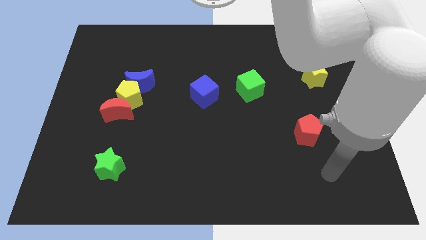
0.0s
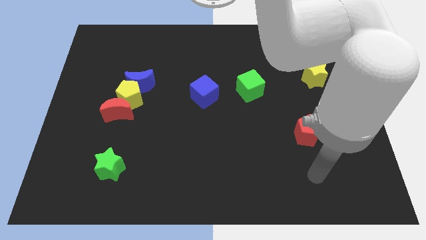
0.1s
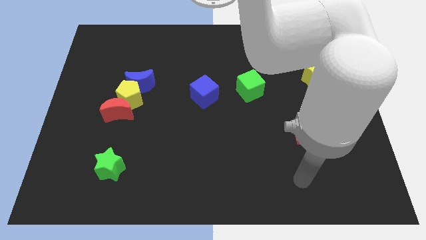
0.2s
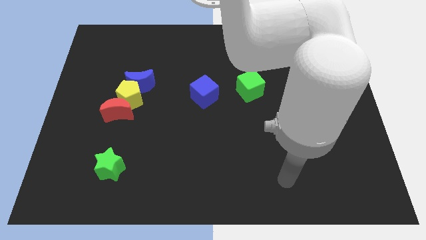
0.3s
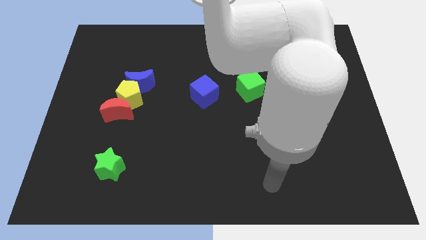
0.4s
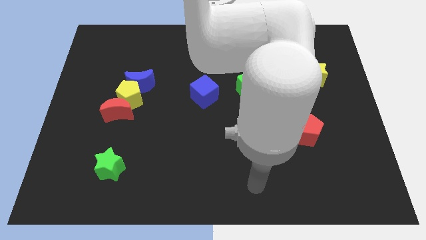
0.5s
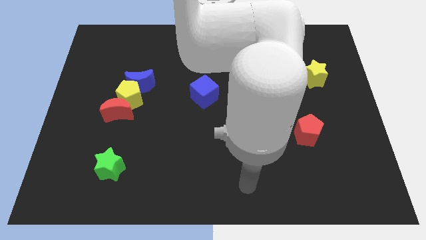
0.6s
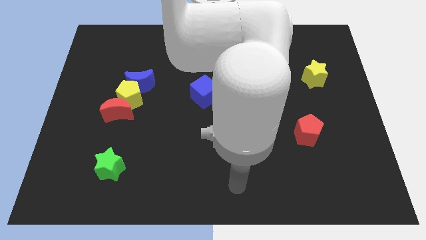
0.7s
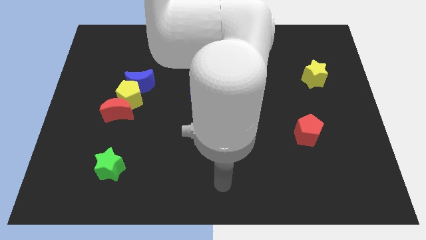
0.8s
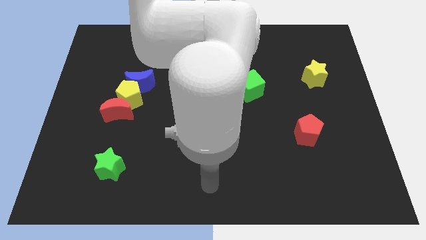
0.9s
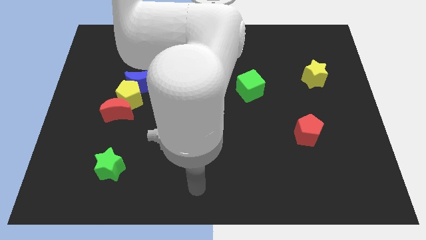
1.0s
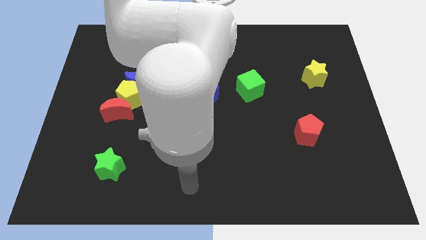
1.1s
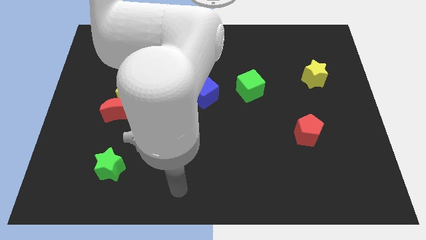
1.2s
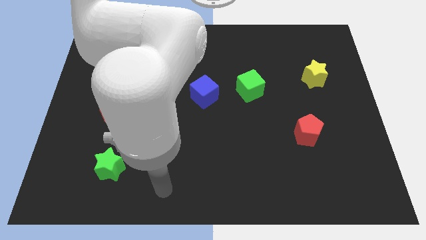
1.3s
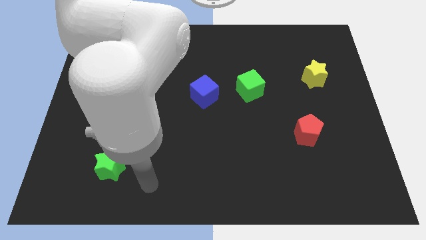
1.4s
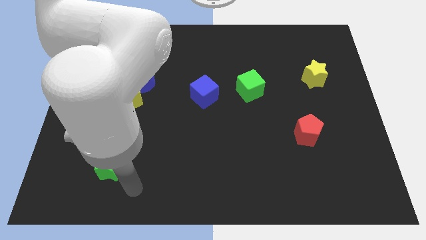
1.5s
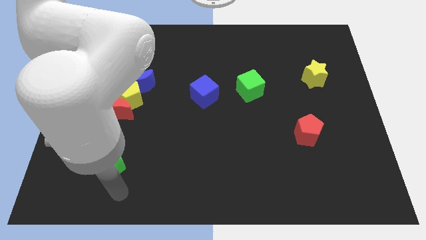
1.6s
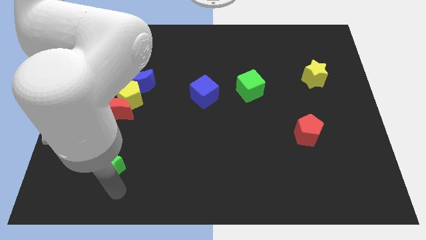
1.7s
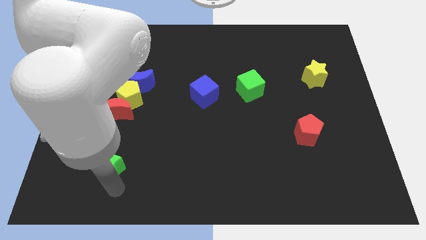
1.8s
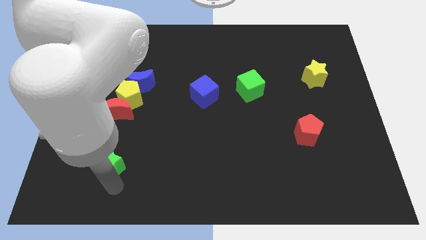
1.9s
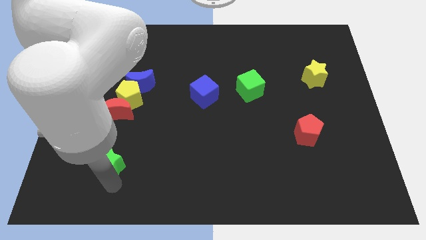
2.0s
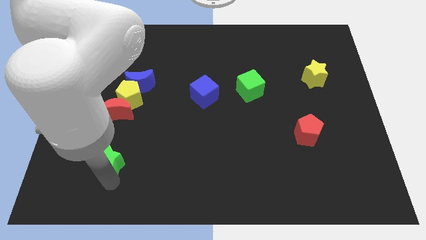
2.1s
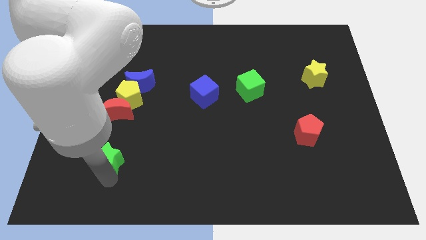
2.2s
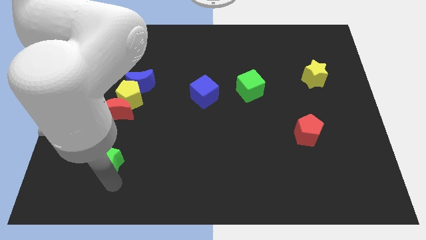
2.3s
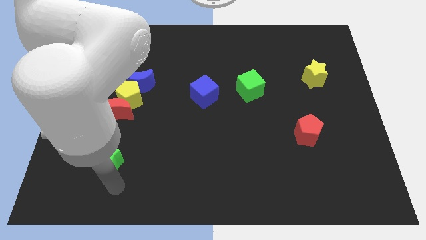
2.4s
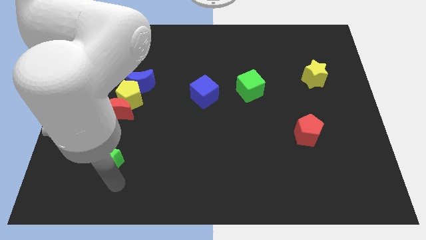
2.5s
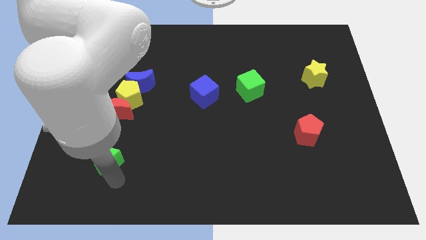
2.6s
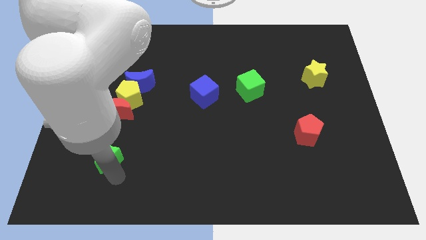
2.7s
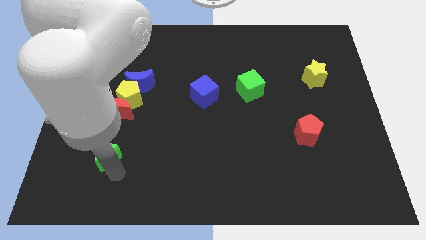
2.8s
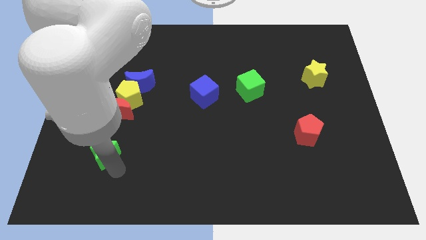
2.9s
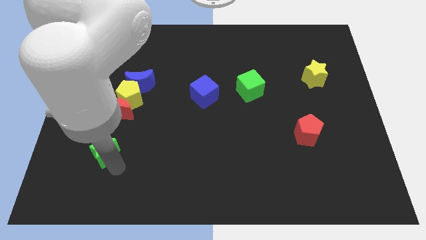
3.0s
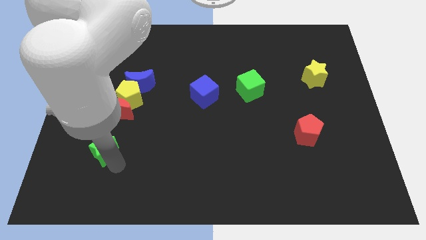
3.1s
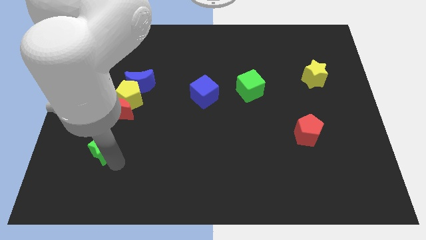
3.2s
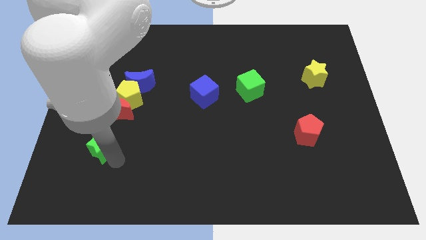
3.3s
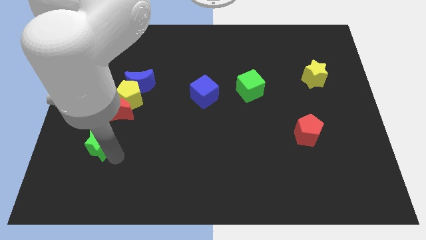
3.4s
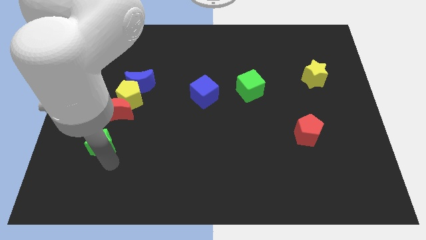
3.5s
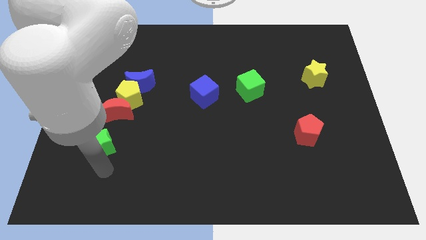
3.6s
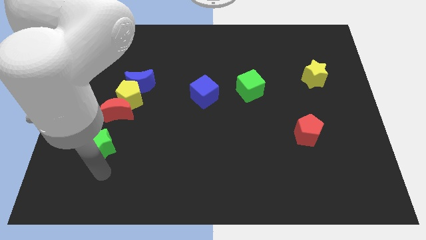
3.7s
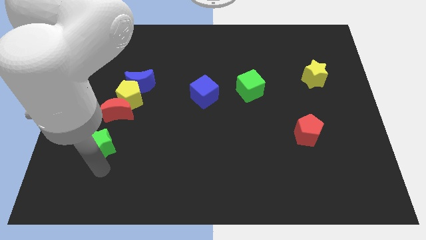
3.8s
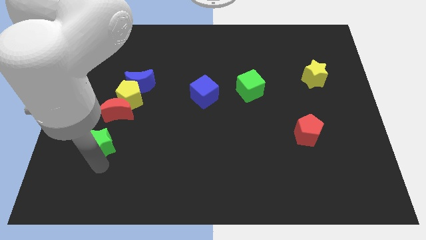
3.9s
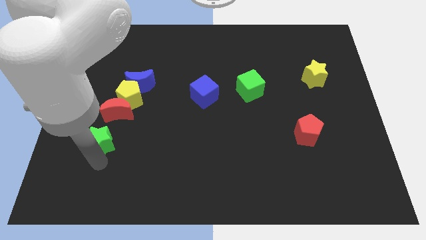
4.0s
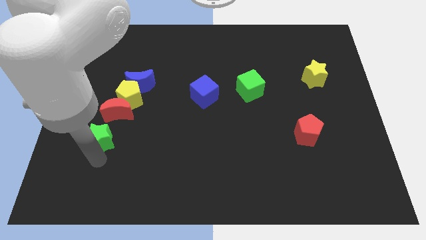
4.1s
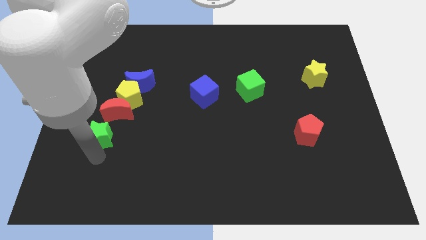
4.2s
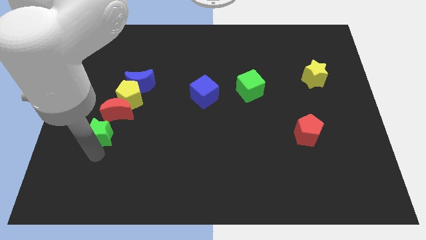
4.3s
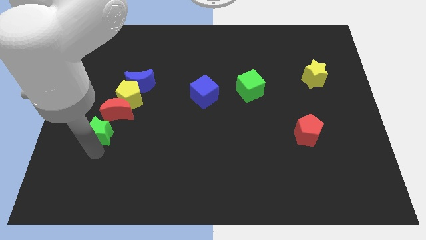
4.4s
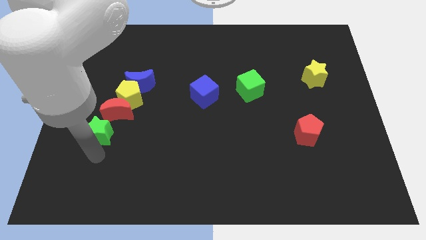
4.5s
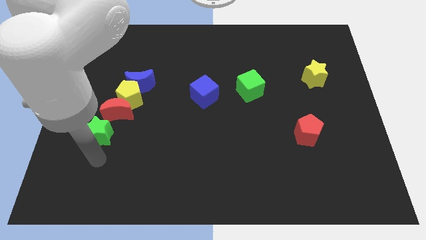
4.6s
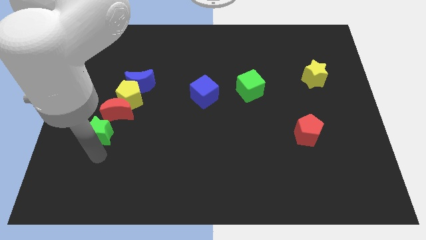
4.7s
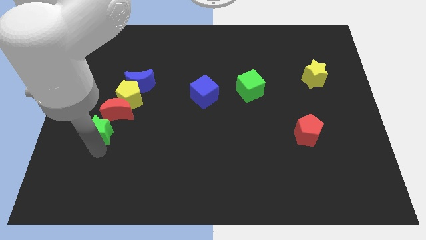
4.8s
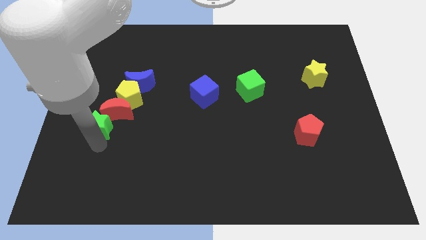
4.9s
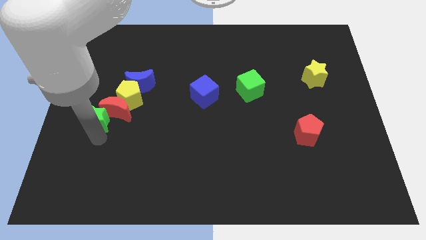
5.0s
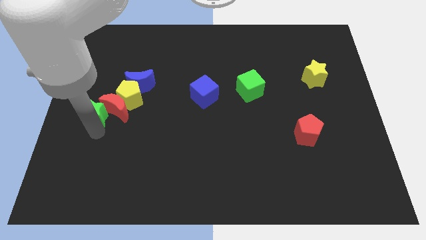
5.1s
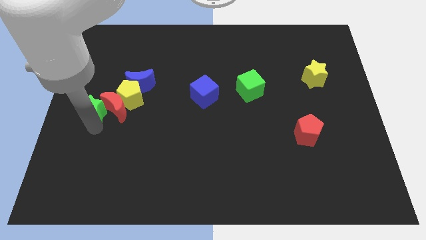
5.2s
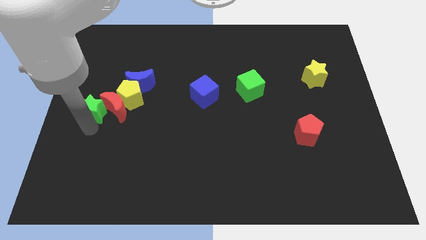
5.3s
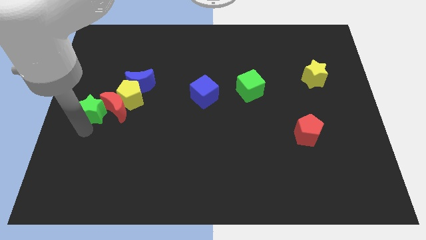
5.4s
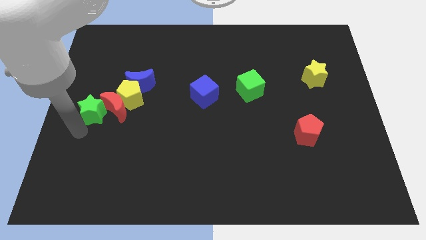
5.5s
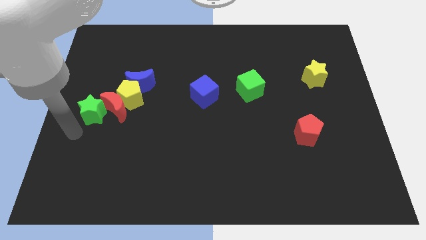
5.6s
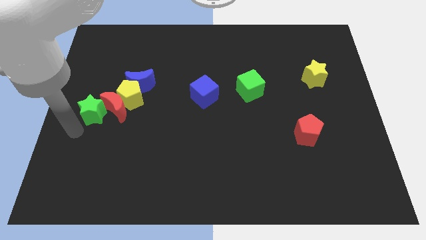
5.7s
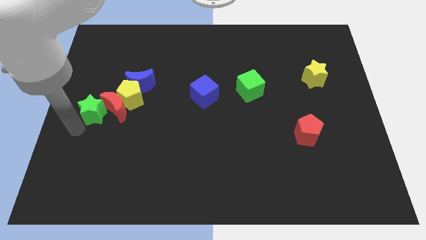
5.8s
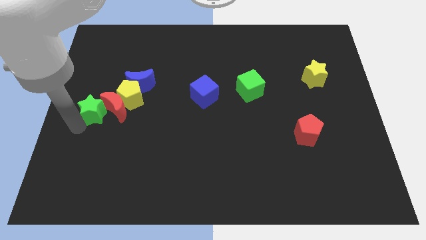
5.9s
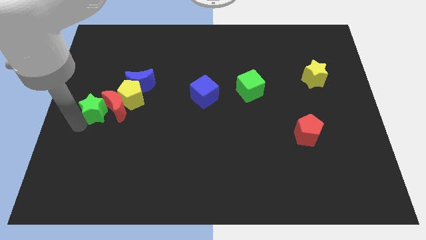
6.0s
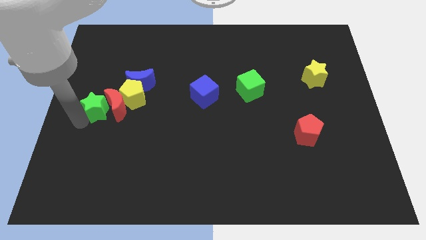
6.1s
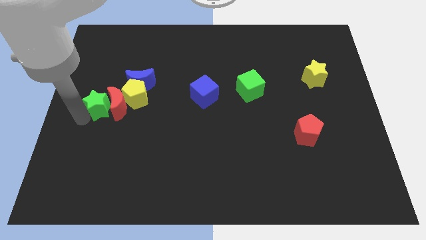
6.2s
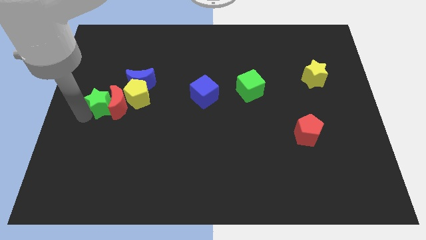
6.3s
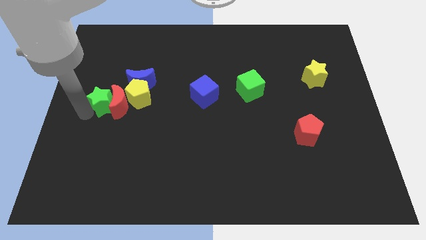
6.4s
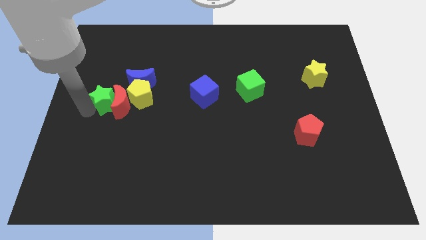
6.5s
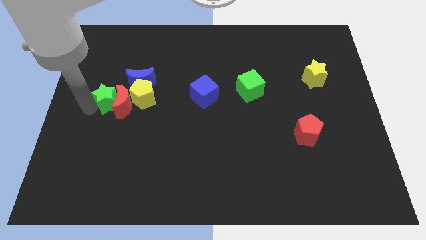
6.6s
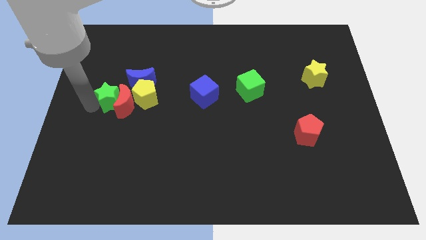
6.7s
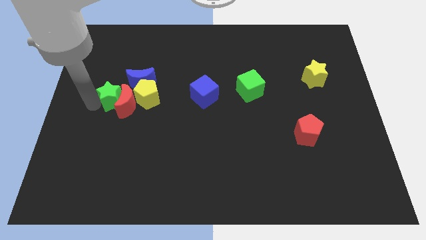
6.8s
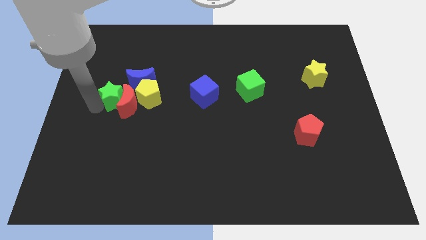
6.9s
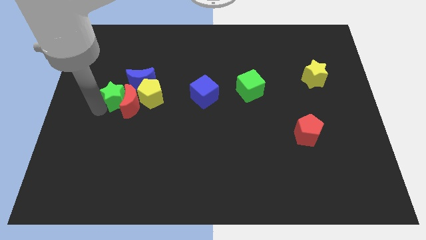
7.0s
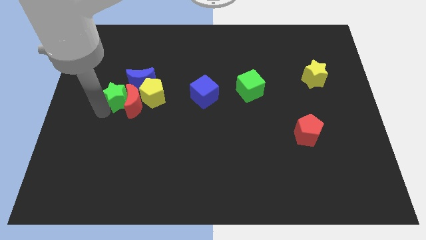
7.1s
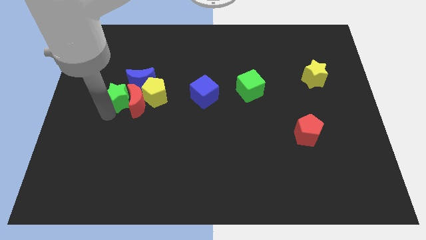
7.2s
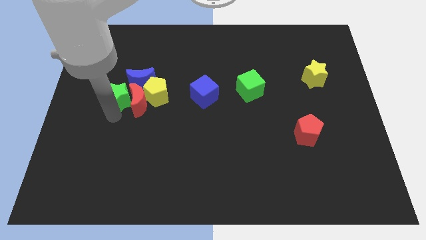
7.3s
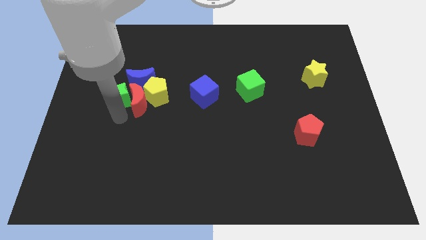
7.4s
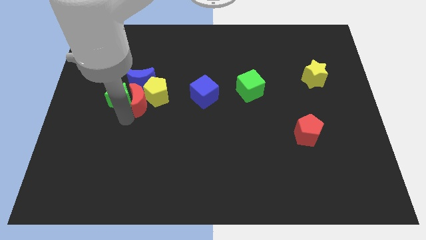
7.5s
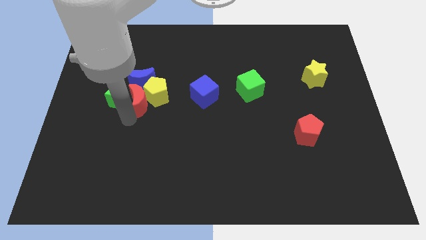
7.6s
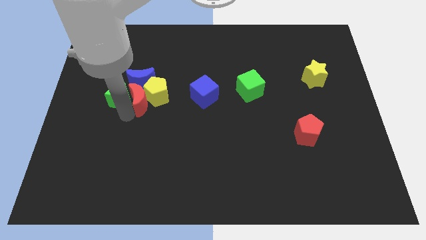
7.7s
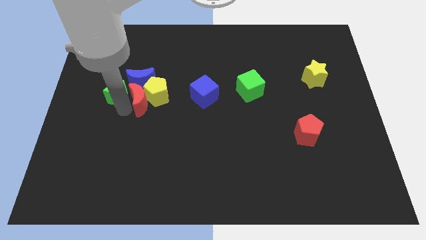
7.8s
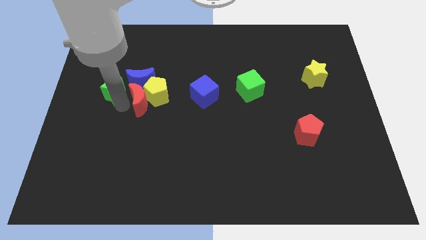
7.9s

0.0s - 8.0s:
slide the green star up
